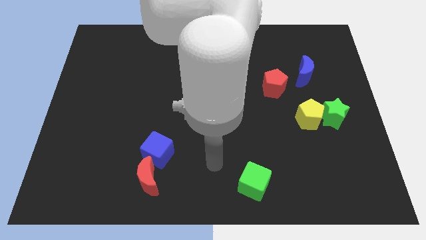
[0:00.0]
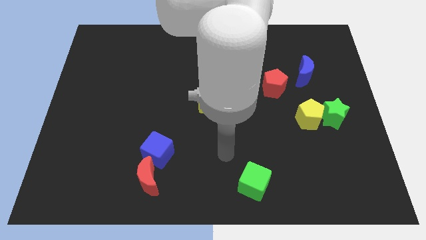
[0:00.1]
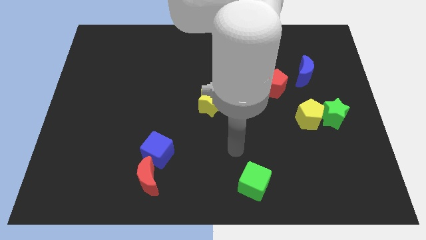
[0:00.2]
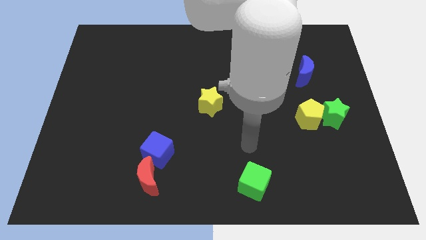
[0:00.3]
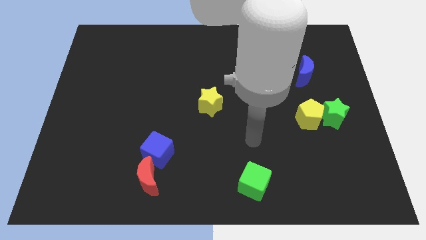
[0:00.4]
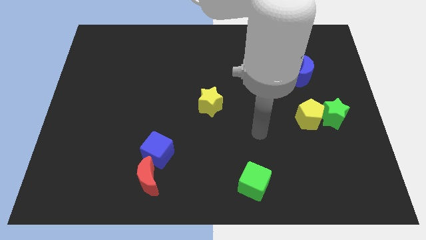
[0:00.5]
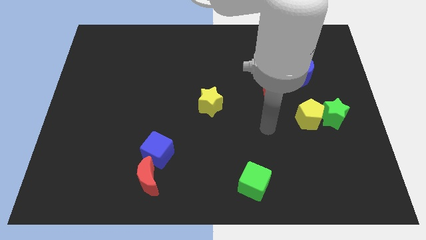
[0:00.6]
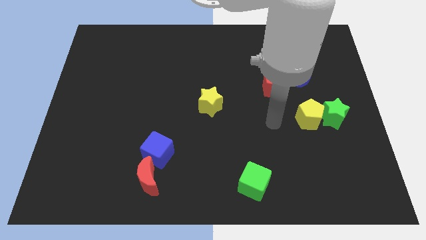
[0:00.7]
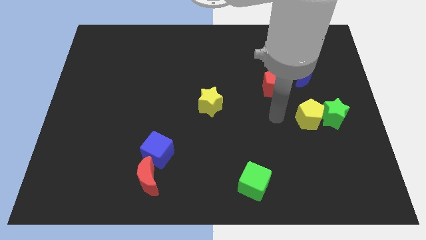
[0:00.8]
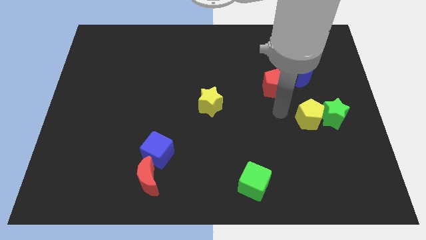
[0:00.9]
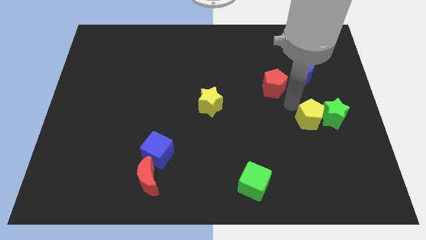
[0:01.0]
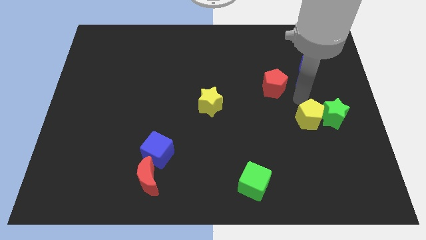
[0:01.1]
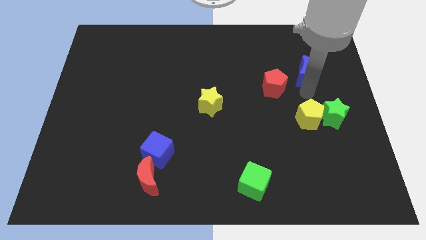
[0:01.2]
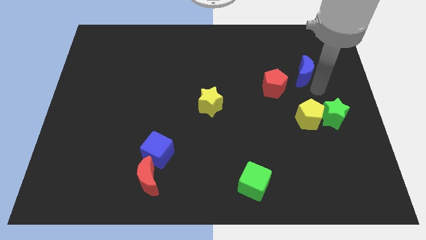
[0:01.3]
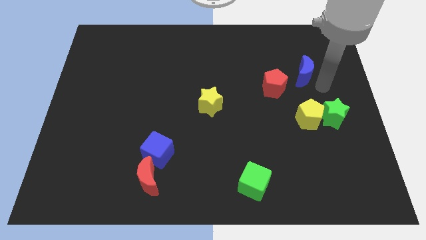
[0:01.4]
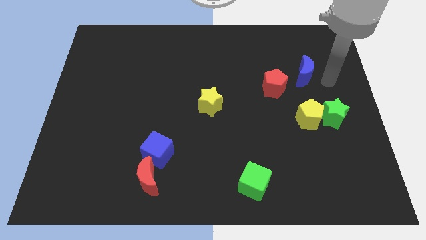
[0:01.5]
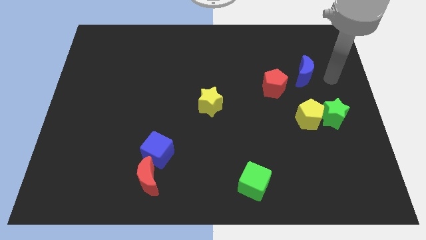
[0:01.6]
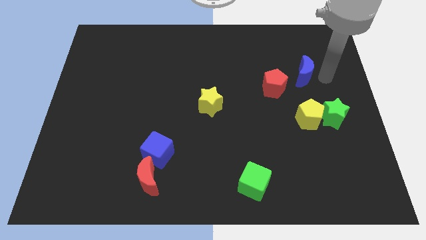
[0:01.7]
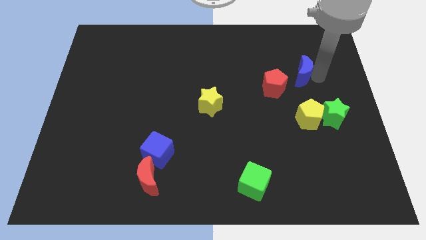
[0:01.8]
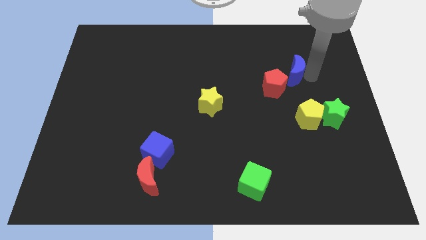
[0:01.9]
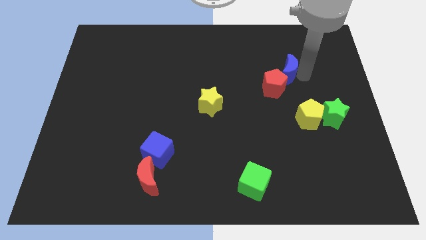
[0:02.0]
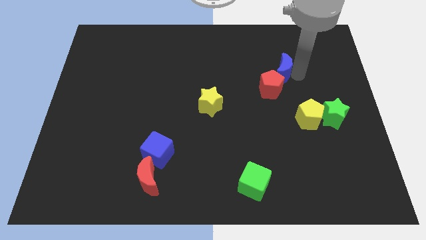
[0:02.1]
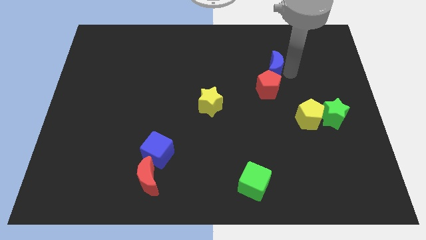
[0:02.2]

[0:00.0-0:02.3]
slightly move the blue moon left

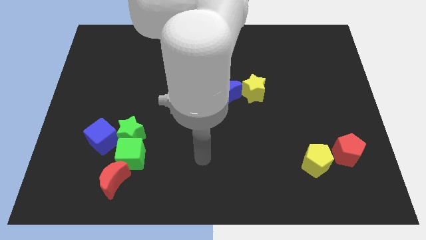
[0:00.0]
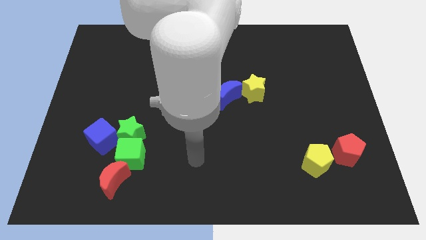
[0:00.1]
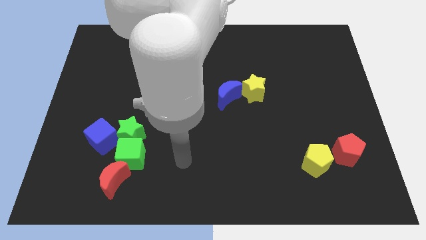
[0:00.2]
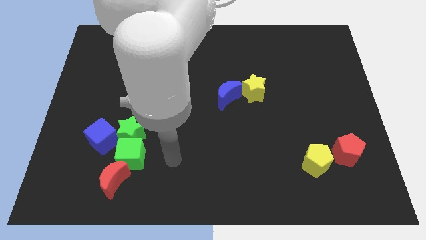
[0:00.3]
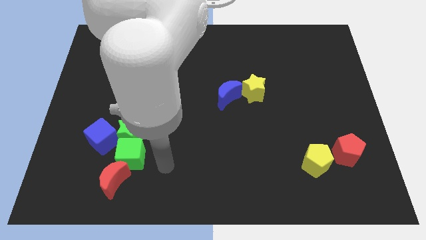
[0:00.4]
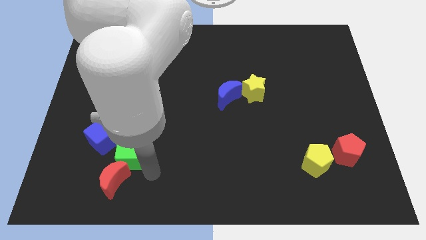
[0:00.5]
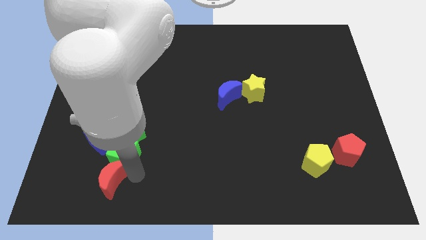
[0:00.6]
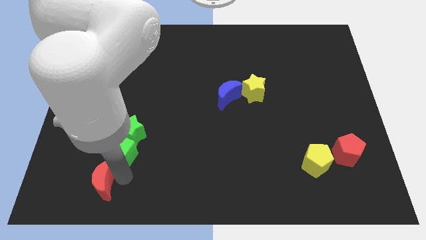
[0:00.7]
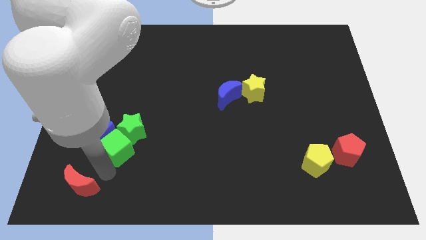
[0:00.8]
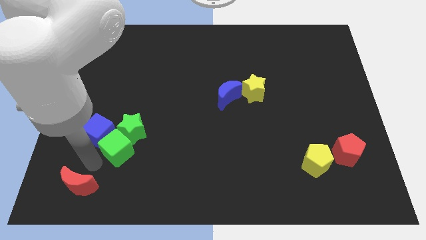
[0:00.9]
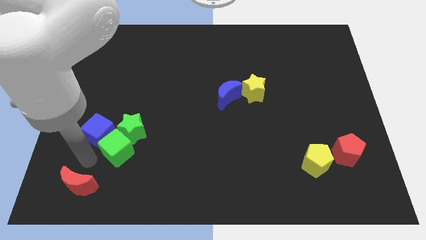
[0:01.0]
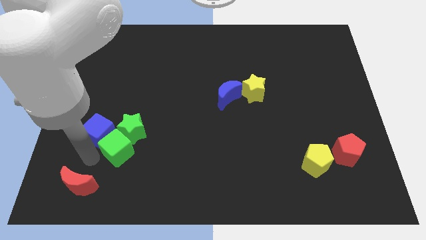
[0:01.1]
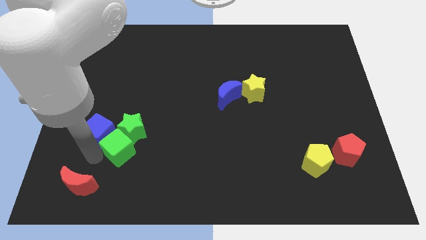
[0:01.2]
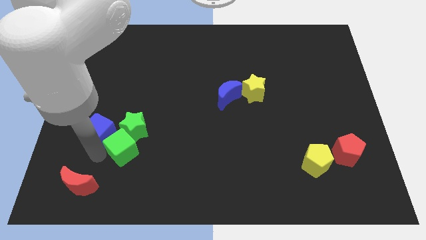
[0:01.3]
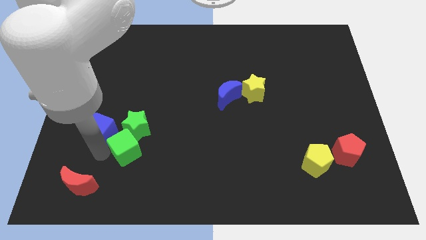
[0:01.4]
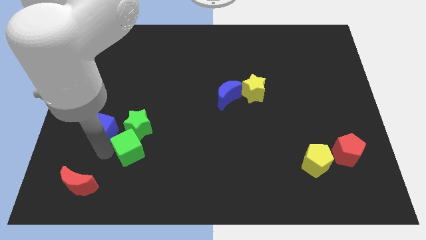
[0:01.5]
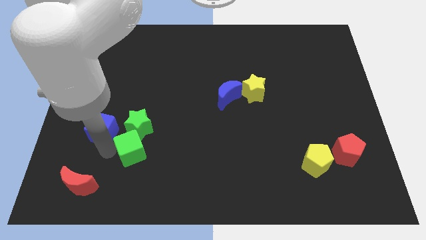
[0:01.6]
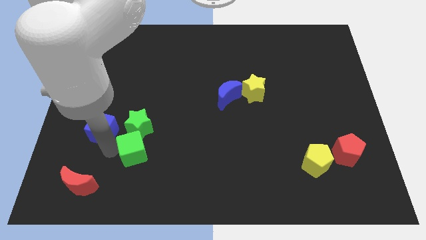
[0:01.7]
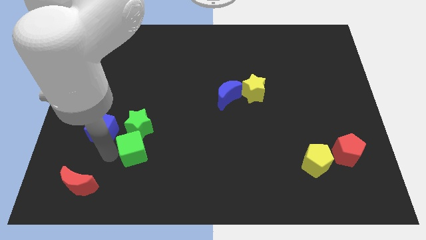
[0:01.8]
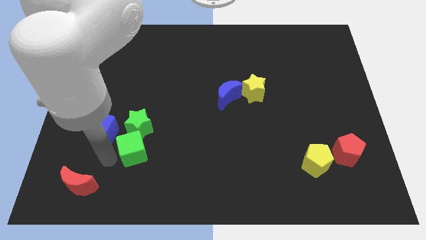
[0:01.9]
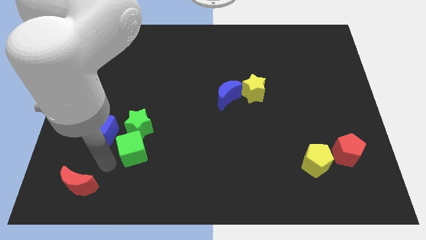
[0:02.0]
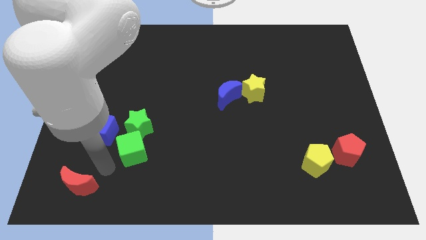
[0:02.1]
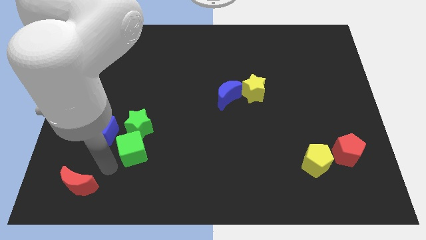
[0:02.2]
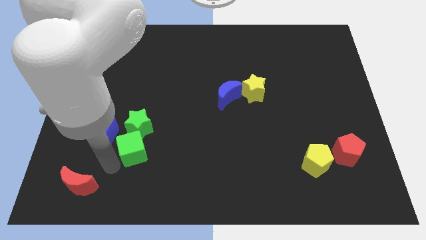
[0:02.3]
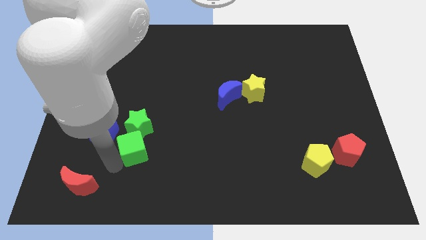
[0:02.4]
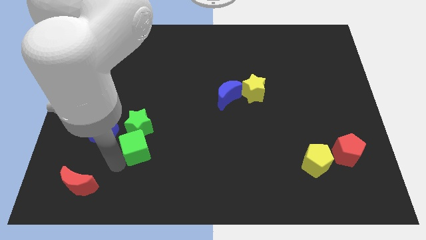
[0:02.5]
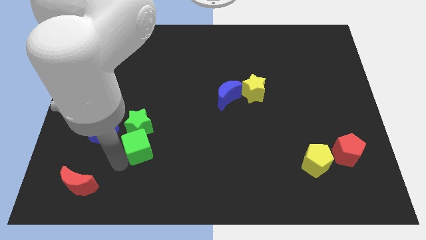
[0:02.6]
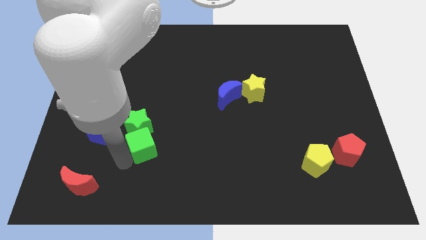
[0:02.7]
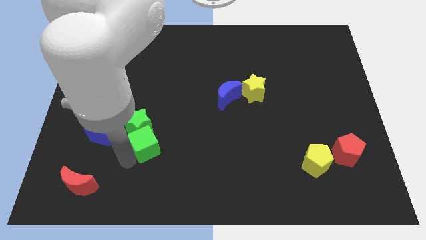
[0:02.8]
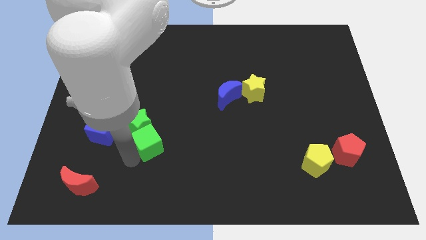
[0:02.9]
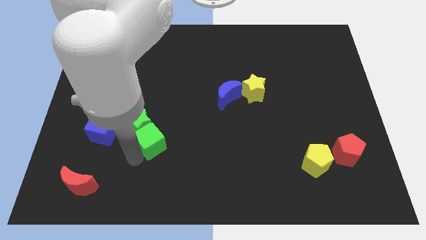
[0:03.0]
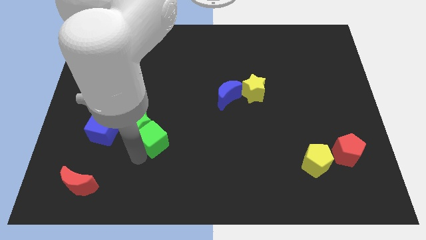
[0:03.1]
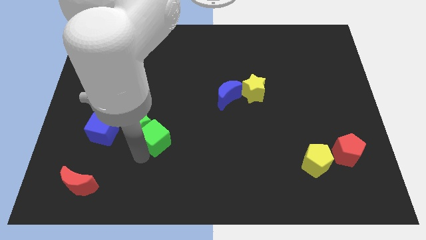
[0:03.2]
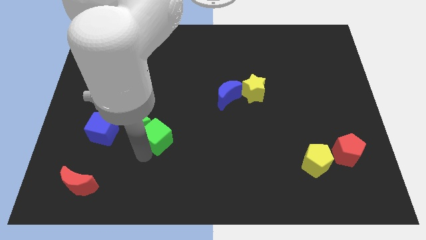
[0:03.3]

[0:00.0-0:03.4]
slightly push the green cube up and then right

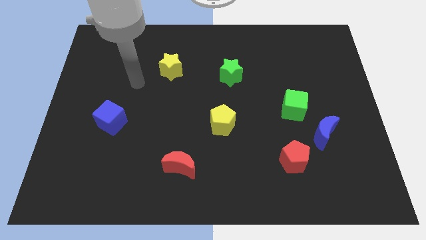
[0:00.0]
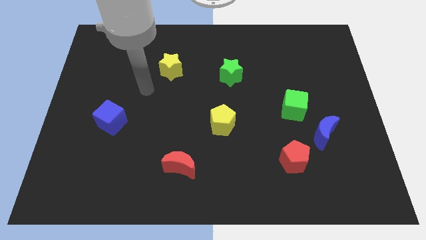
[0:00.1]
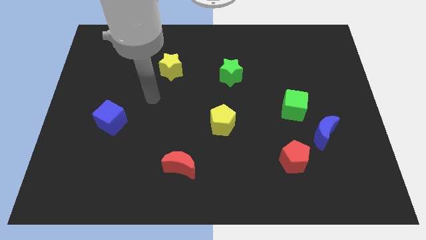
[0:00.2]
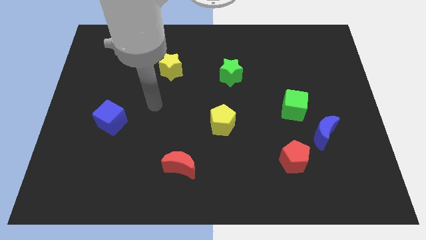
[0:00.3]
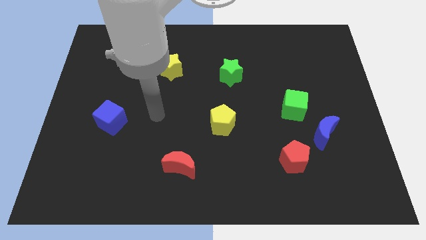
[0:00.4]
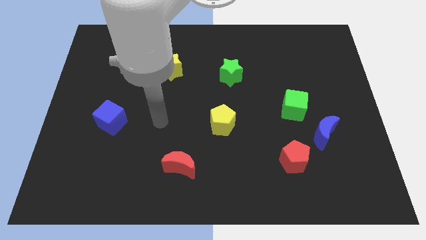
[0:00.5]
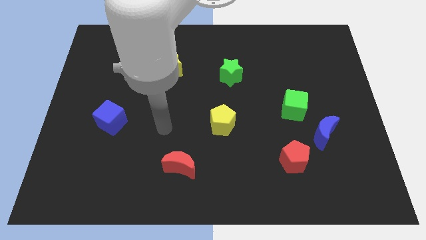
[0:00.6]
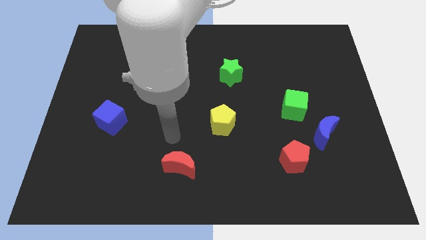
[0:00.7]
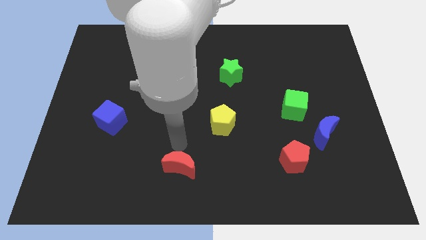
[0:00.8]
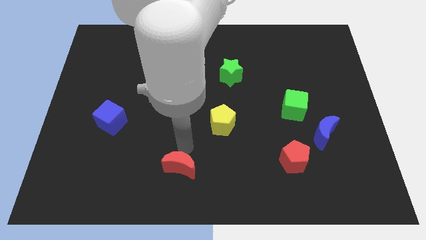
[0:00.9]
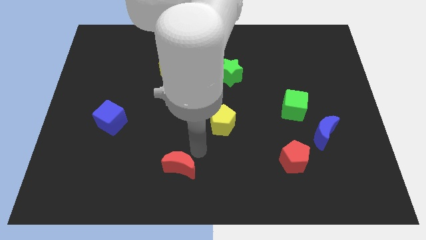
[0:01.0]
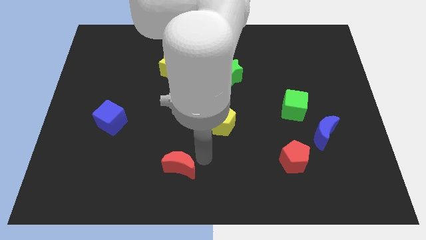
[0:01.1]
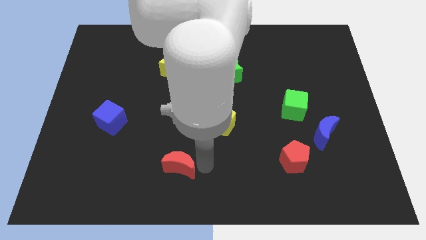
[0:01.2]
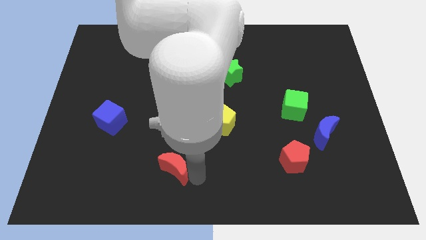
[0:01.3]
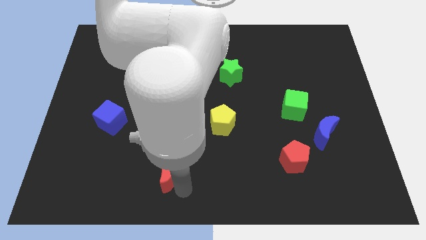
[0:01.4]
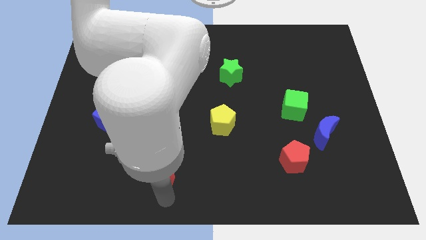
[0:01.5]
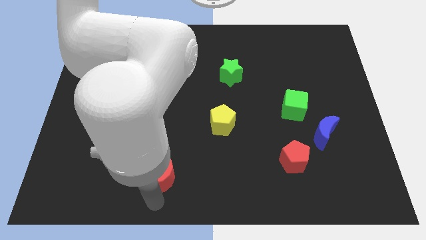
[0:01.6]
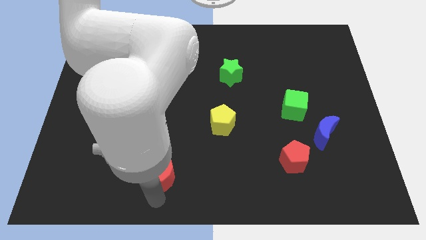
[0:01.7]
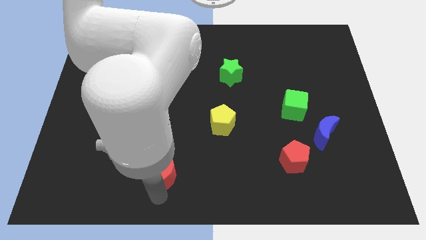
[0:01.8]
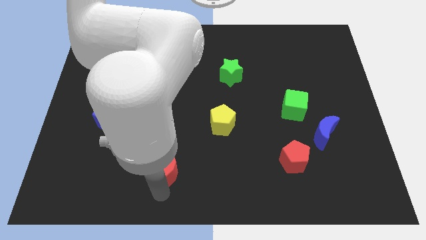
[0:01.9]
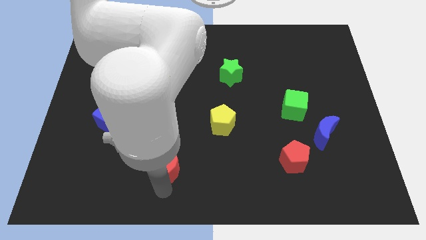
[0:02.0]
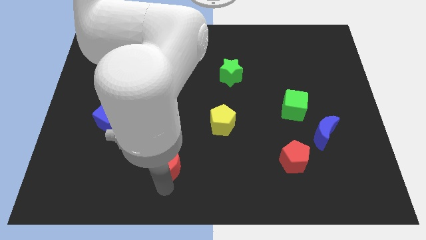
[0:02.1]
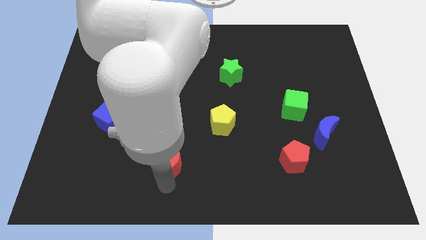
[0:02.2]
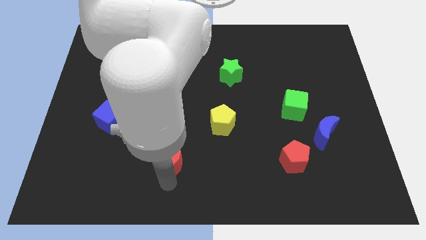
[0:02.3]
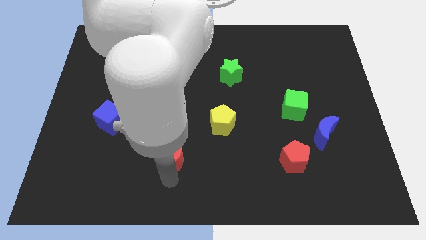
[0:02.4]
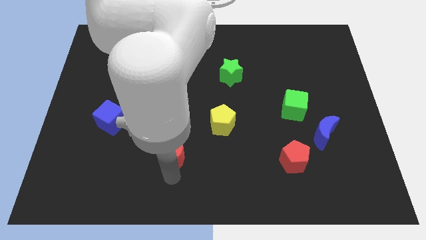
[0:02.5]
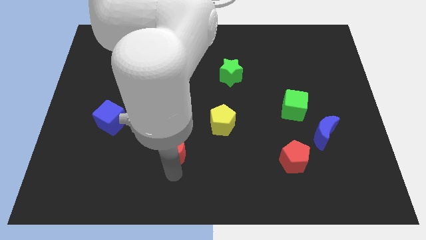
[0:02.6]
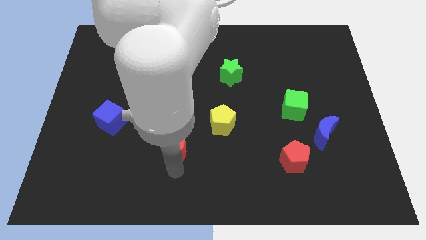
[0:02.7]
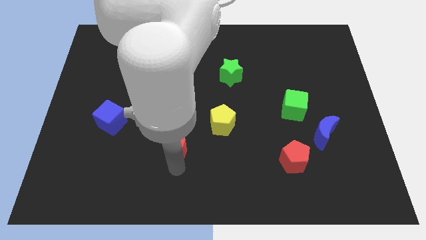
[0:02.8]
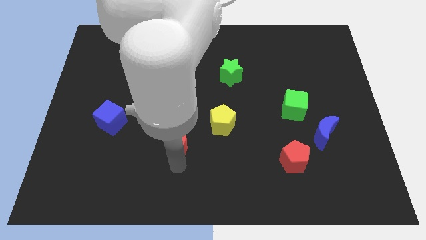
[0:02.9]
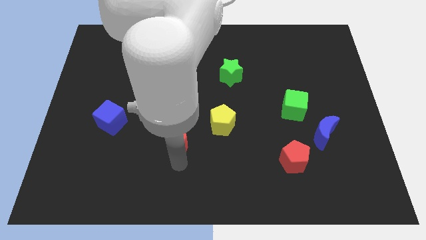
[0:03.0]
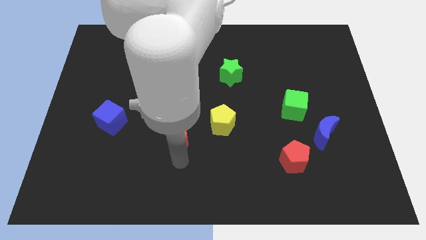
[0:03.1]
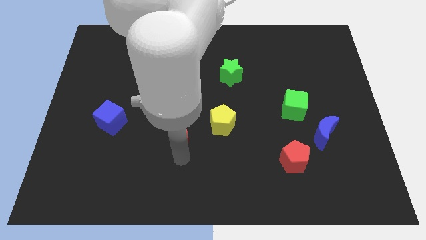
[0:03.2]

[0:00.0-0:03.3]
slide the red moon slightly up
